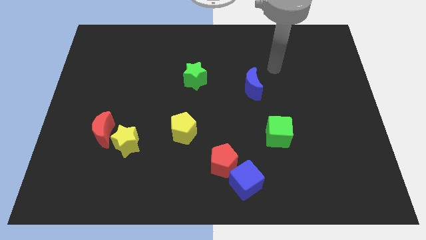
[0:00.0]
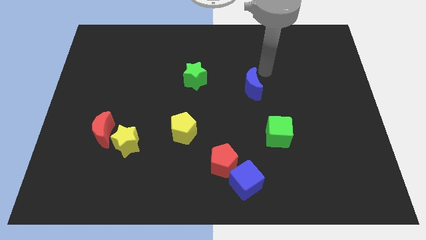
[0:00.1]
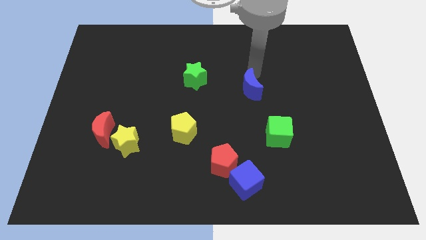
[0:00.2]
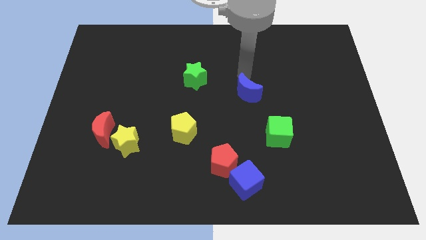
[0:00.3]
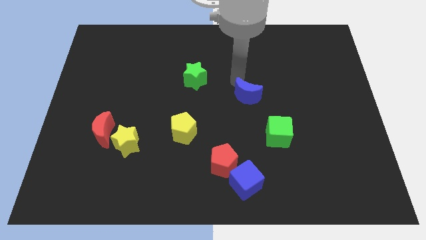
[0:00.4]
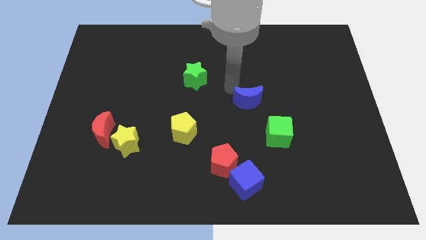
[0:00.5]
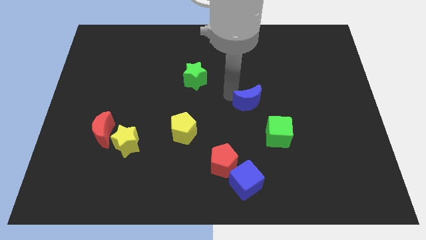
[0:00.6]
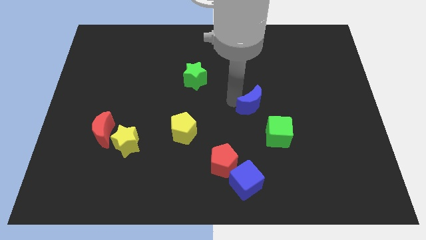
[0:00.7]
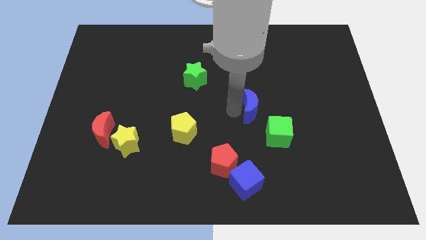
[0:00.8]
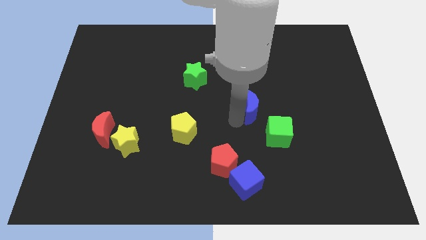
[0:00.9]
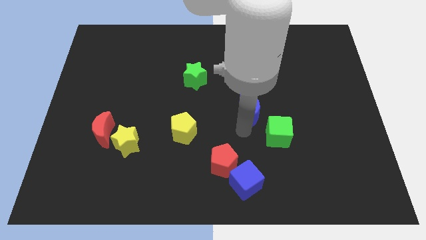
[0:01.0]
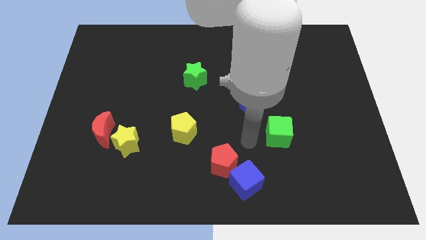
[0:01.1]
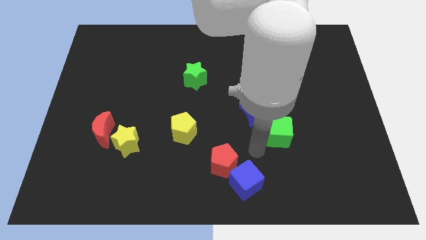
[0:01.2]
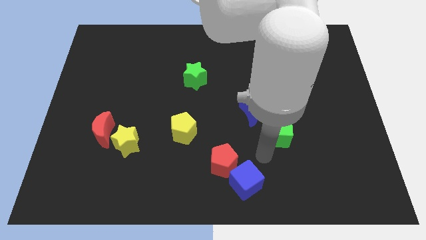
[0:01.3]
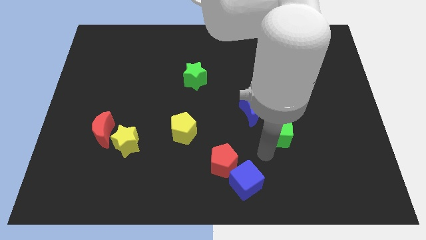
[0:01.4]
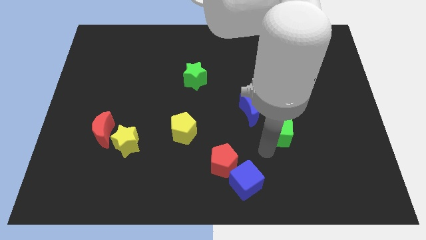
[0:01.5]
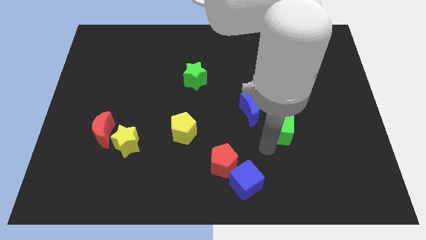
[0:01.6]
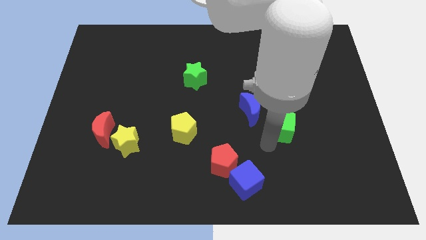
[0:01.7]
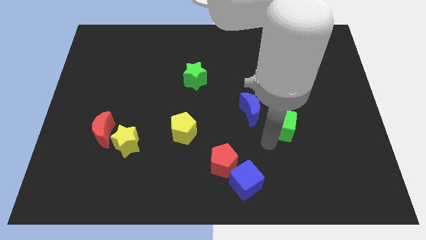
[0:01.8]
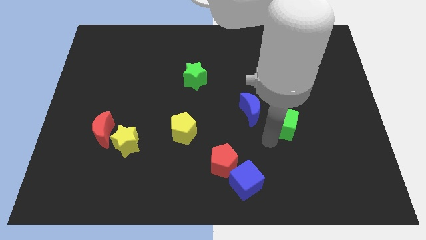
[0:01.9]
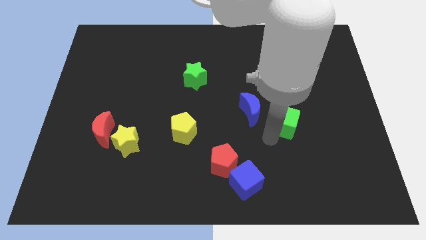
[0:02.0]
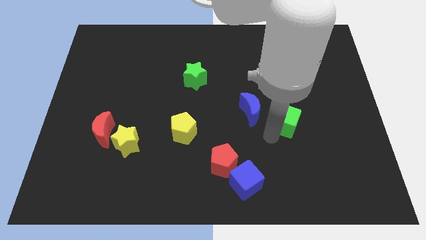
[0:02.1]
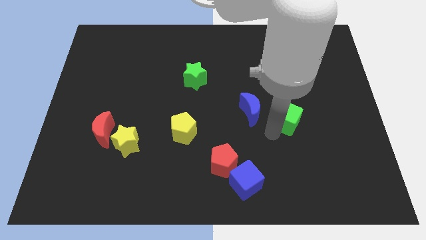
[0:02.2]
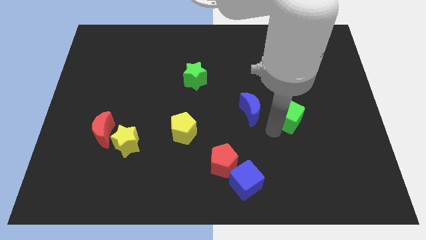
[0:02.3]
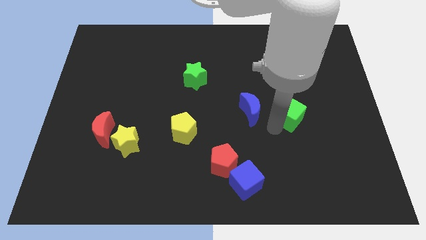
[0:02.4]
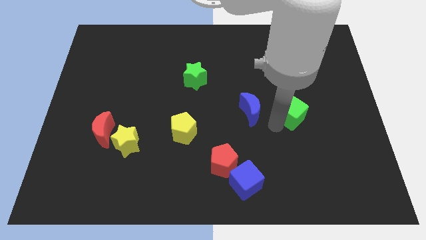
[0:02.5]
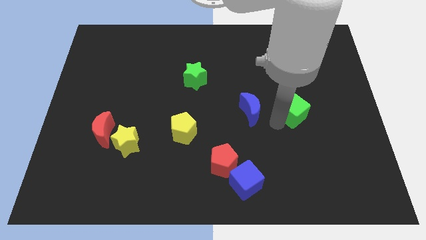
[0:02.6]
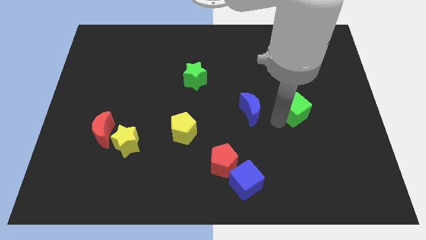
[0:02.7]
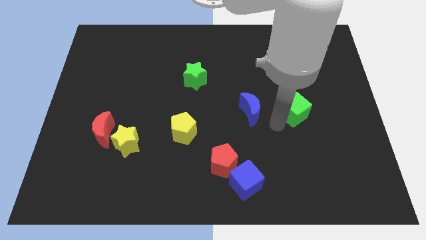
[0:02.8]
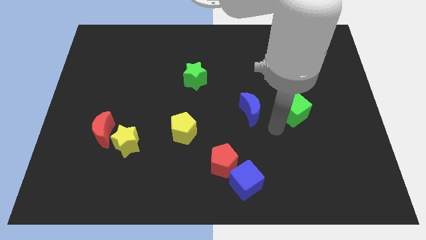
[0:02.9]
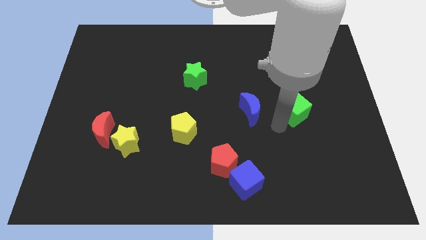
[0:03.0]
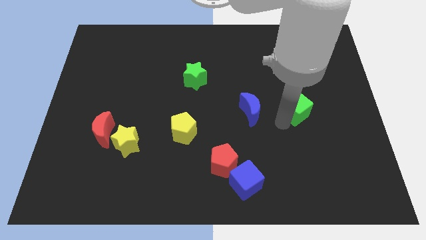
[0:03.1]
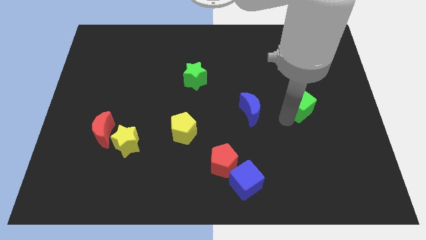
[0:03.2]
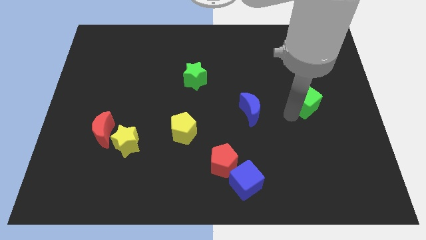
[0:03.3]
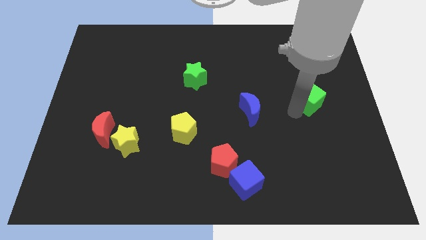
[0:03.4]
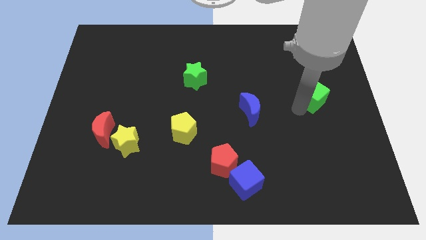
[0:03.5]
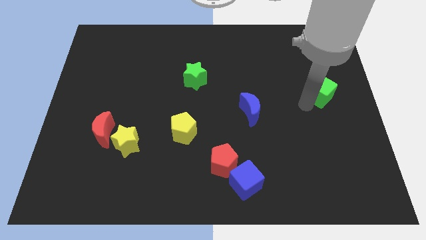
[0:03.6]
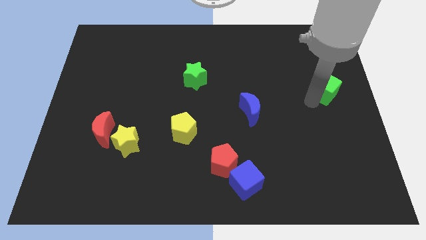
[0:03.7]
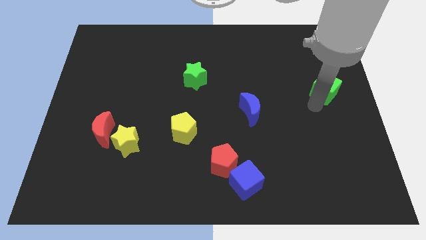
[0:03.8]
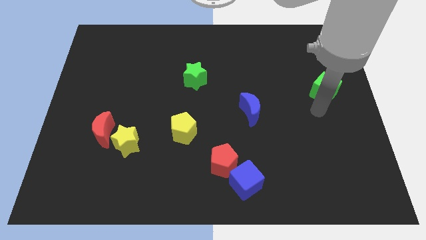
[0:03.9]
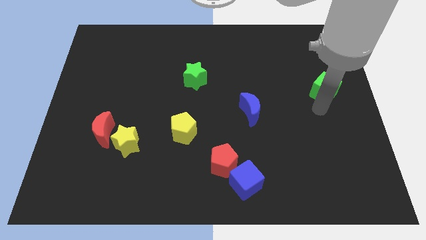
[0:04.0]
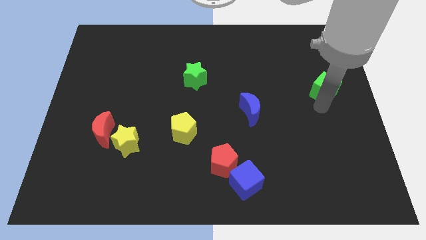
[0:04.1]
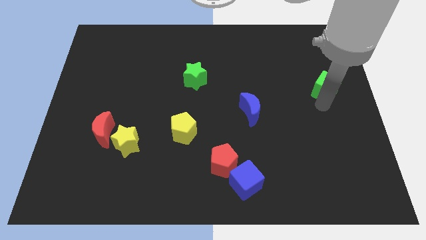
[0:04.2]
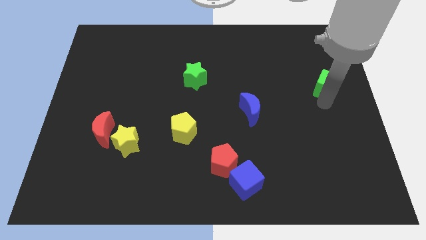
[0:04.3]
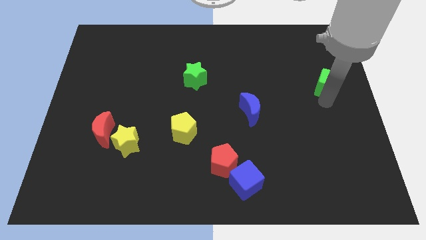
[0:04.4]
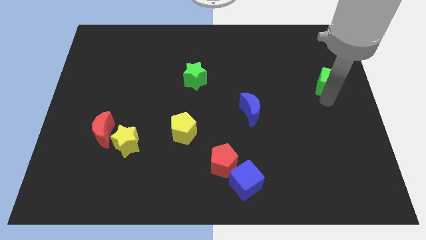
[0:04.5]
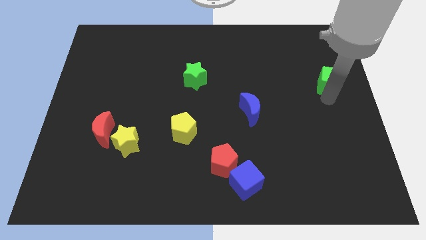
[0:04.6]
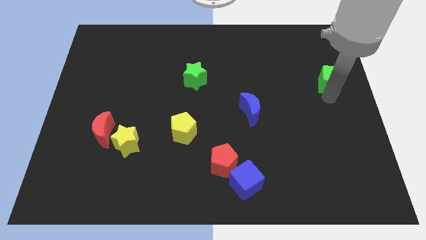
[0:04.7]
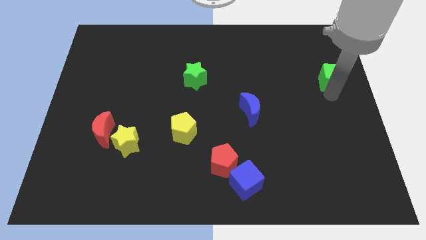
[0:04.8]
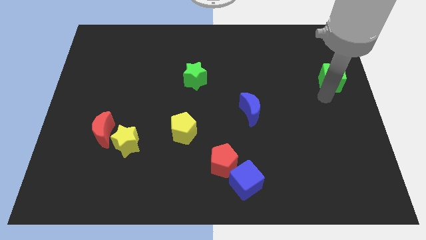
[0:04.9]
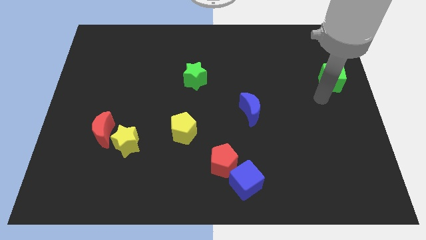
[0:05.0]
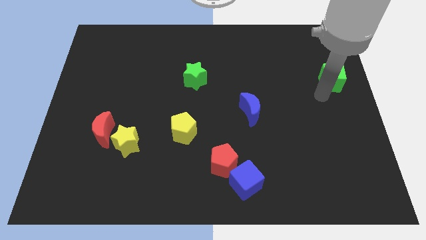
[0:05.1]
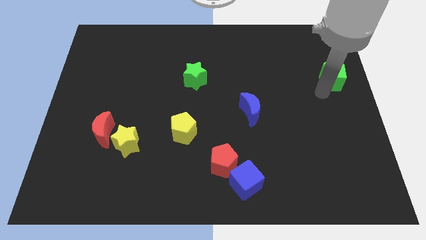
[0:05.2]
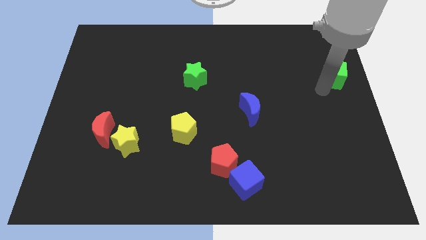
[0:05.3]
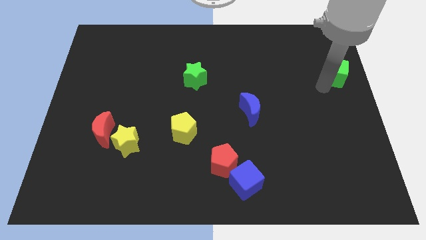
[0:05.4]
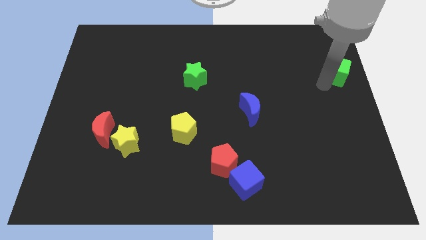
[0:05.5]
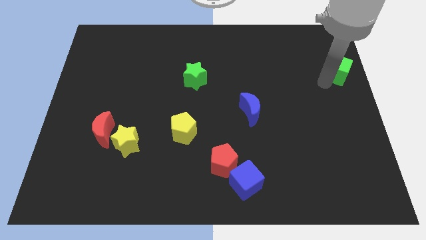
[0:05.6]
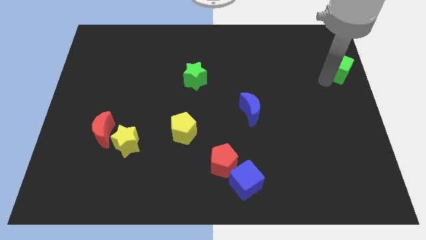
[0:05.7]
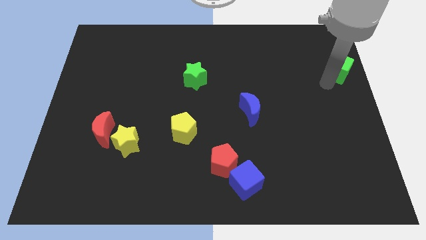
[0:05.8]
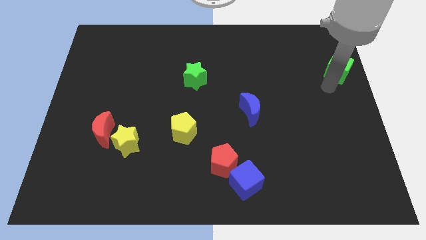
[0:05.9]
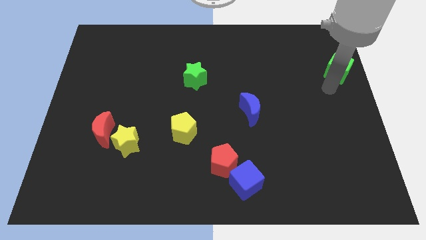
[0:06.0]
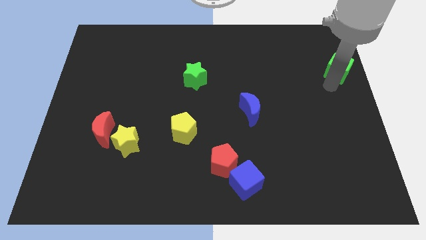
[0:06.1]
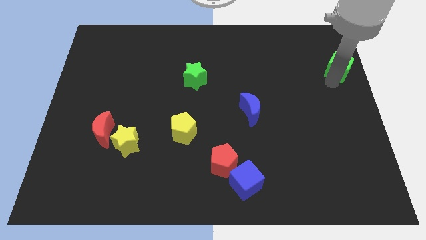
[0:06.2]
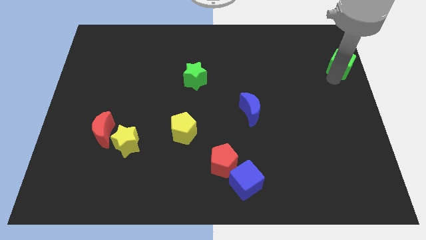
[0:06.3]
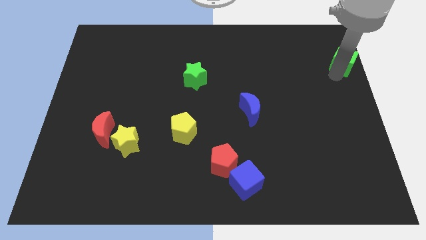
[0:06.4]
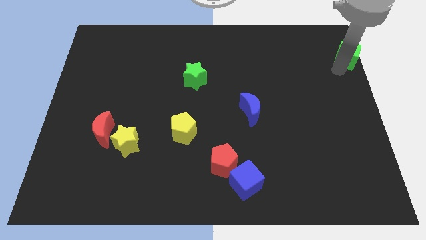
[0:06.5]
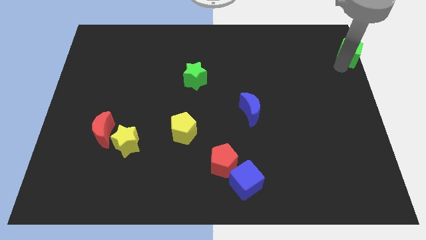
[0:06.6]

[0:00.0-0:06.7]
slide the green cube to the upper right corner

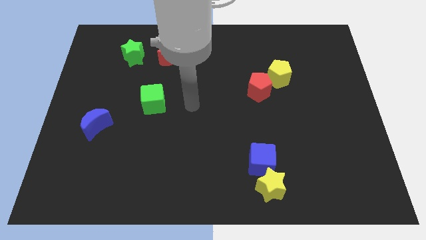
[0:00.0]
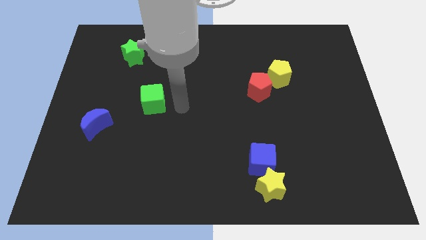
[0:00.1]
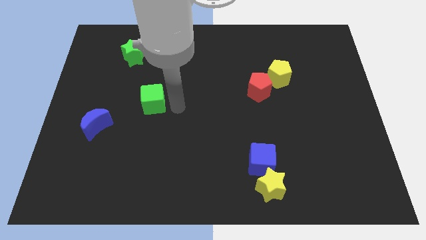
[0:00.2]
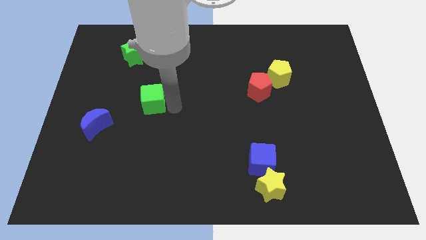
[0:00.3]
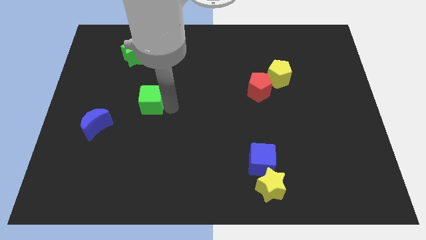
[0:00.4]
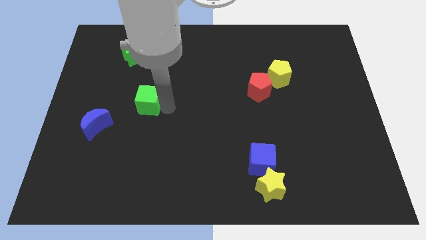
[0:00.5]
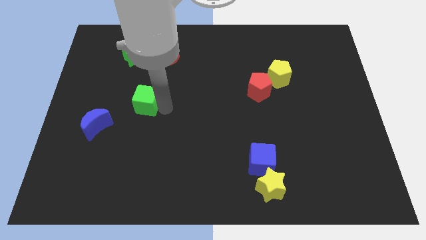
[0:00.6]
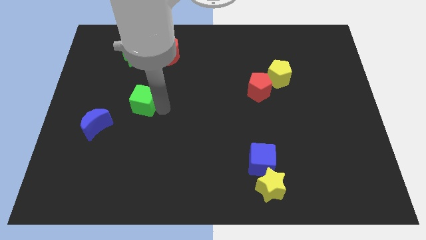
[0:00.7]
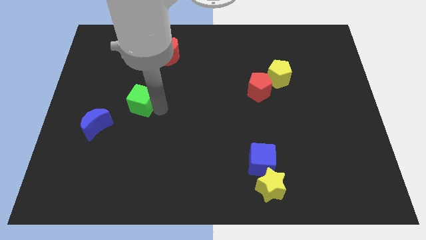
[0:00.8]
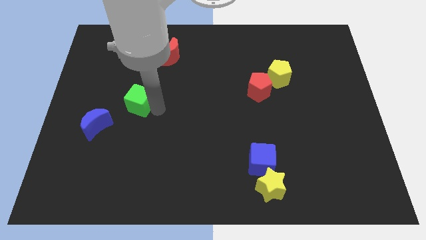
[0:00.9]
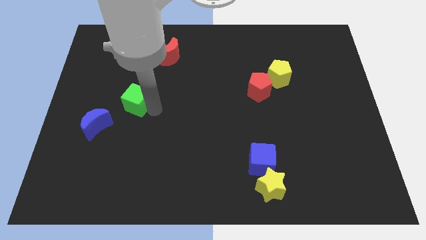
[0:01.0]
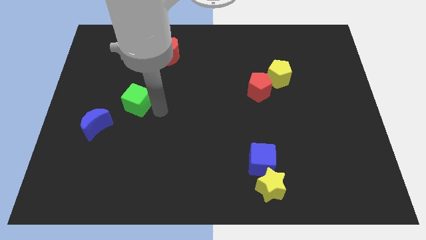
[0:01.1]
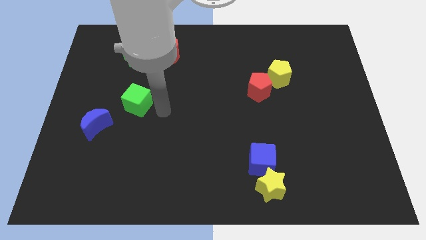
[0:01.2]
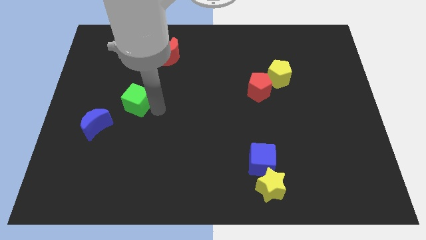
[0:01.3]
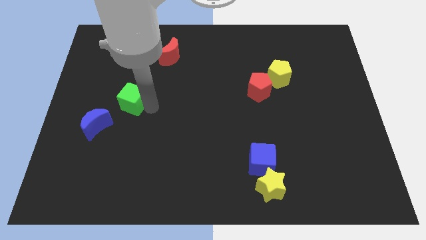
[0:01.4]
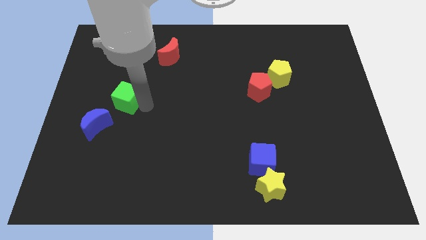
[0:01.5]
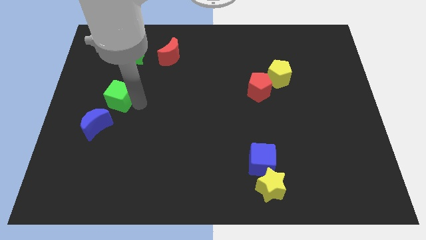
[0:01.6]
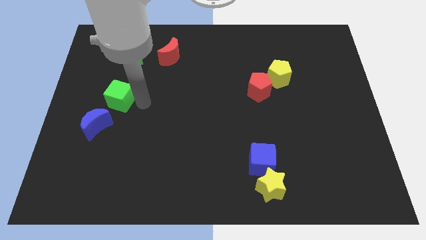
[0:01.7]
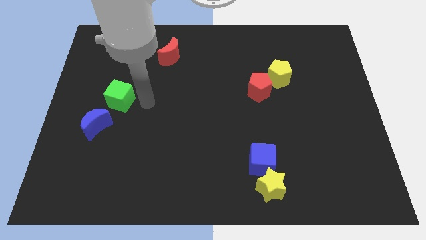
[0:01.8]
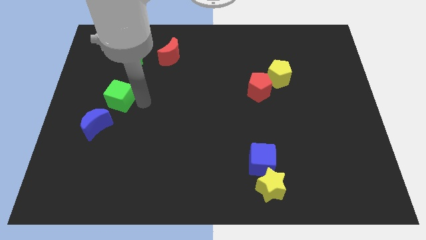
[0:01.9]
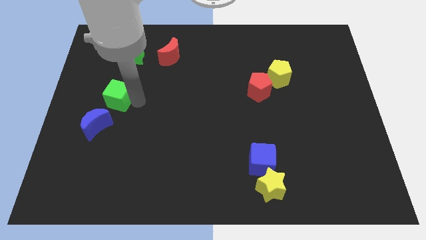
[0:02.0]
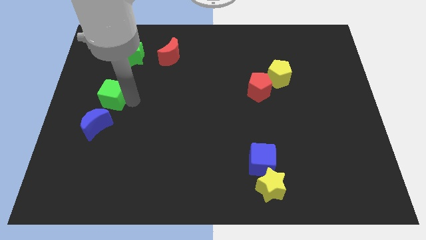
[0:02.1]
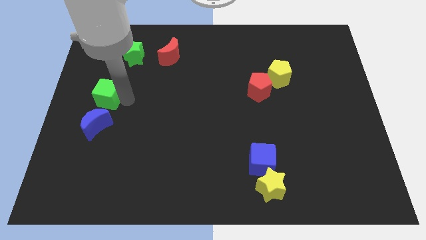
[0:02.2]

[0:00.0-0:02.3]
move the green cube to the left side
